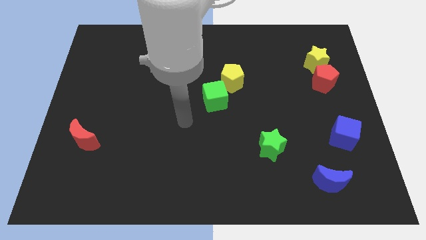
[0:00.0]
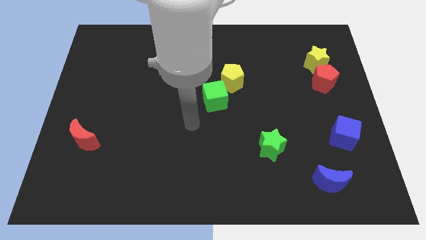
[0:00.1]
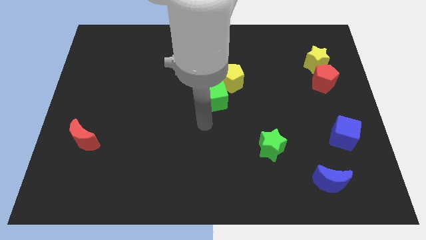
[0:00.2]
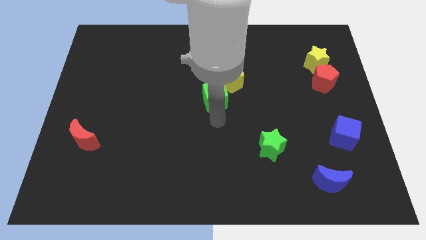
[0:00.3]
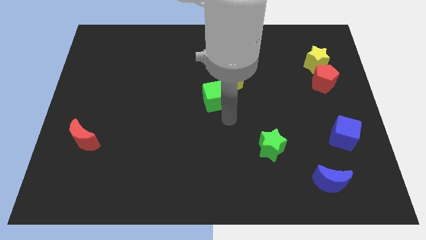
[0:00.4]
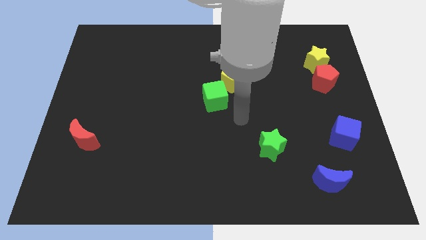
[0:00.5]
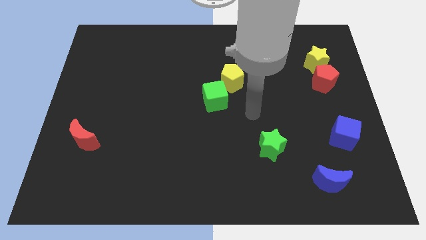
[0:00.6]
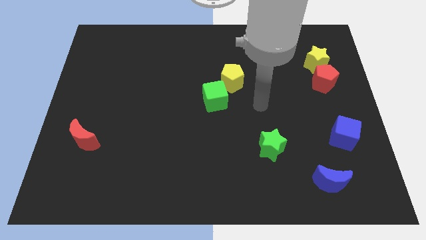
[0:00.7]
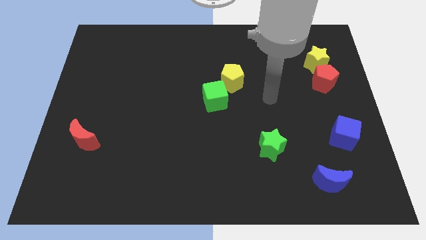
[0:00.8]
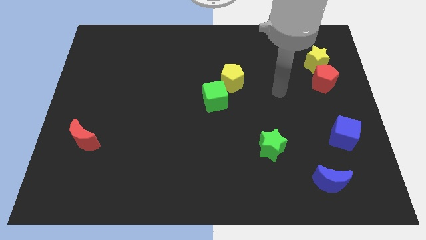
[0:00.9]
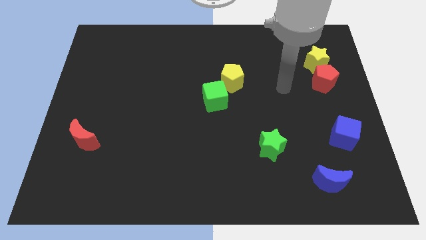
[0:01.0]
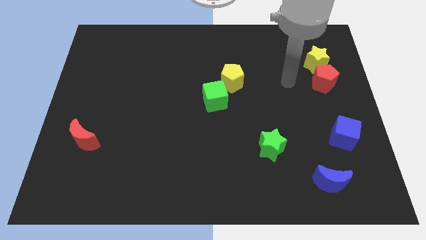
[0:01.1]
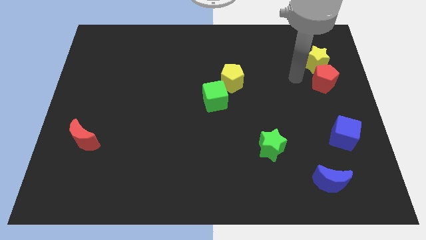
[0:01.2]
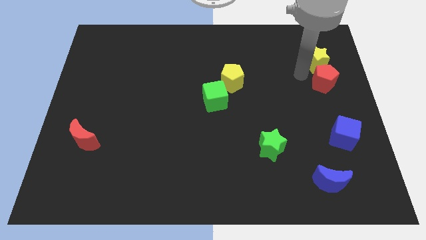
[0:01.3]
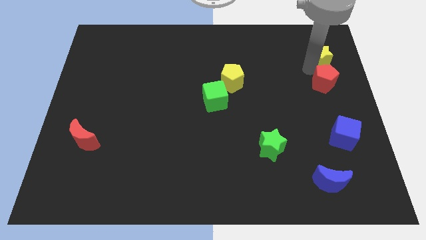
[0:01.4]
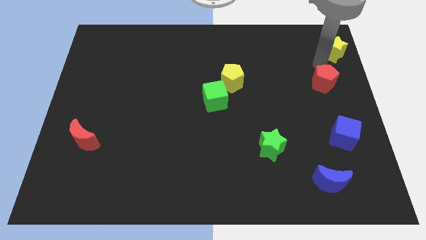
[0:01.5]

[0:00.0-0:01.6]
pull the red pentagon apart from the yellow star

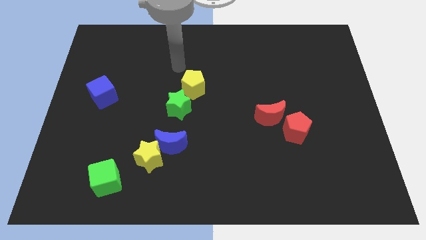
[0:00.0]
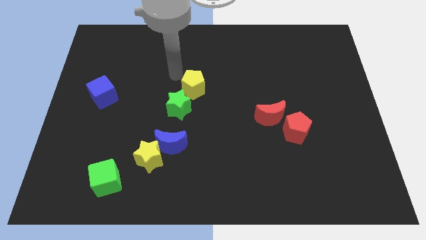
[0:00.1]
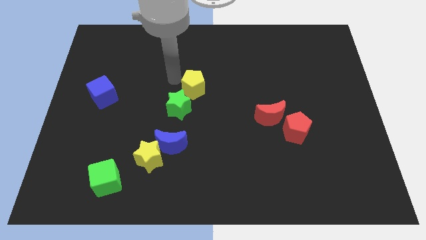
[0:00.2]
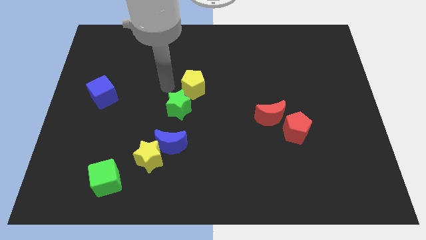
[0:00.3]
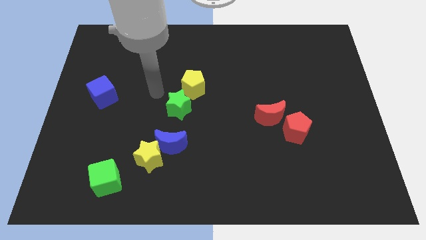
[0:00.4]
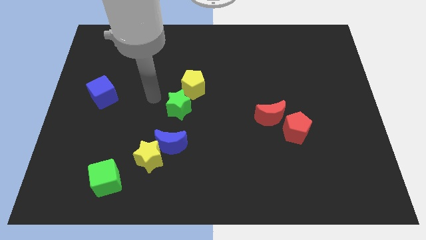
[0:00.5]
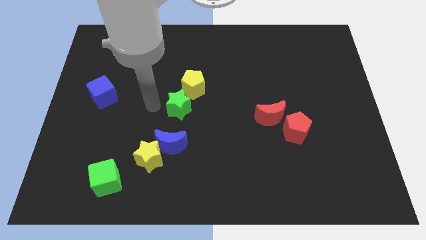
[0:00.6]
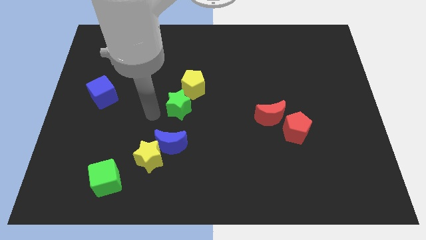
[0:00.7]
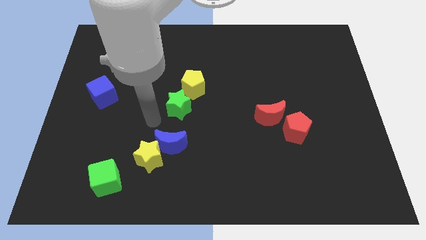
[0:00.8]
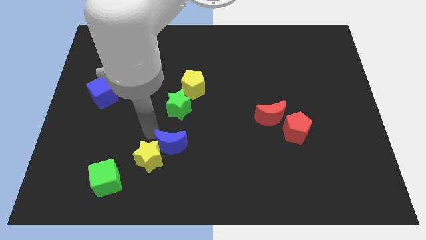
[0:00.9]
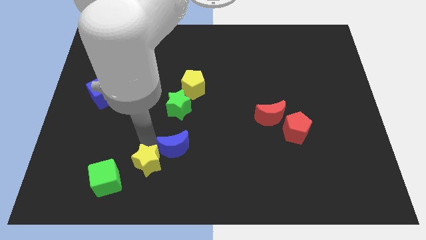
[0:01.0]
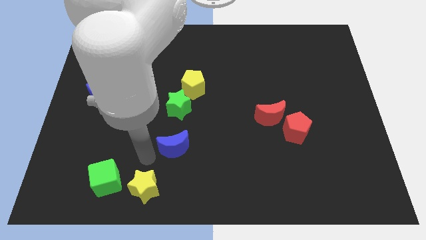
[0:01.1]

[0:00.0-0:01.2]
pull the blue moon apart from the yellow star

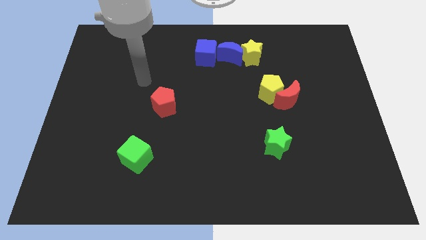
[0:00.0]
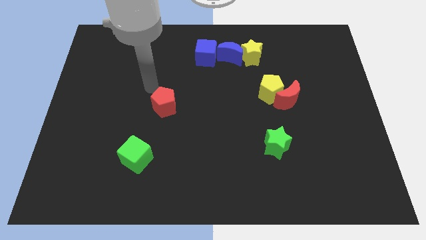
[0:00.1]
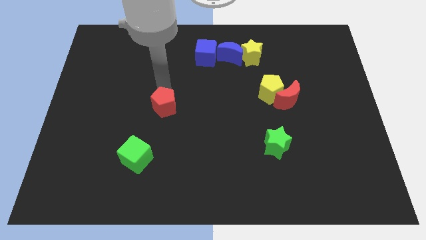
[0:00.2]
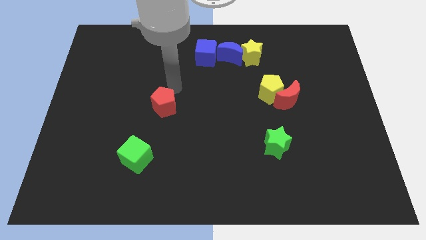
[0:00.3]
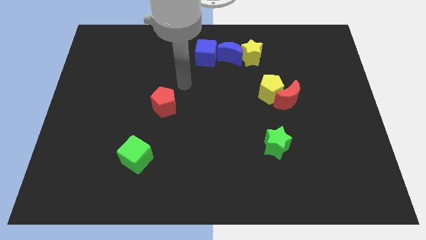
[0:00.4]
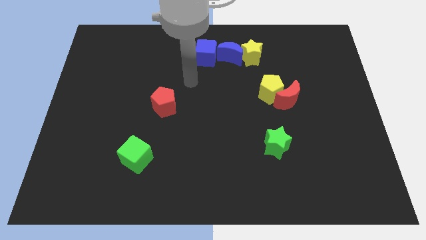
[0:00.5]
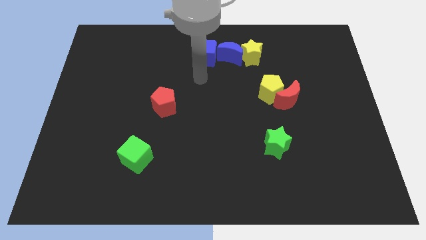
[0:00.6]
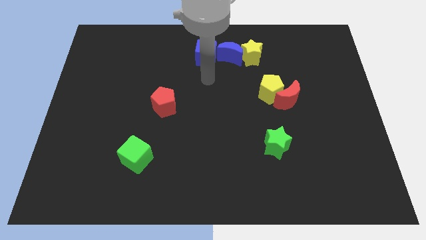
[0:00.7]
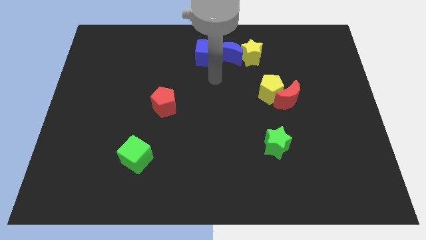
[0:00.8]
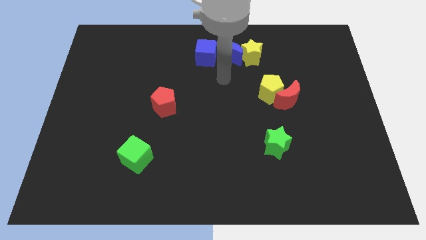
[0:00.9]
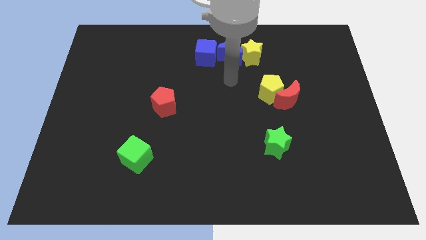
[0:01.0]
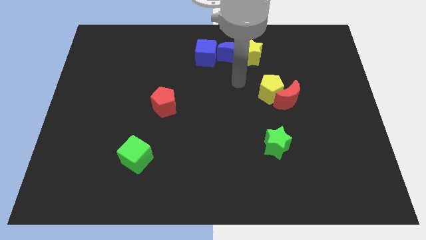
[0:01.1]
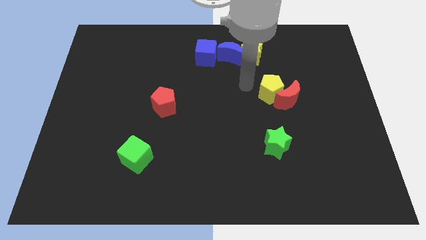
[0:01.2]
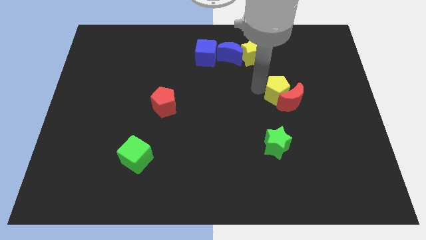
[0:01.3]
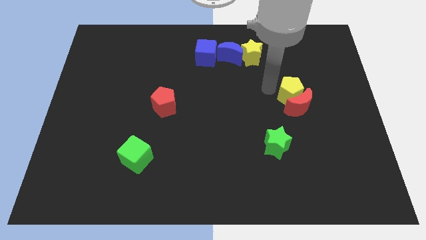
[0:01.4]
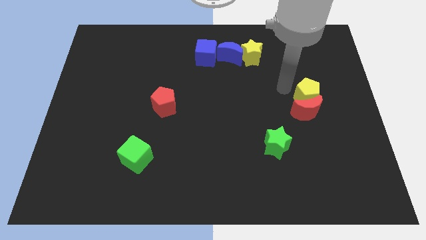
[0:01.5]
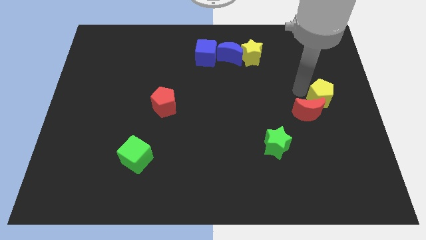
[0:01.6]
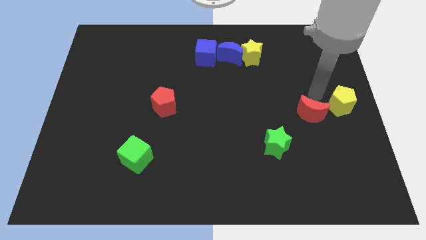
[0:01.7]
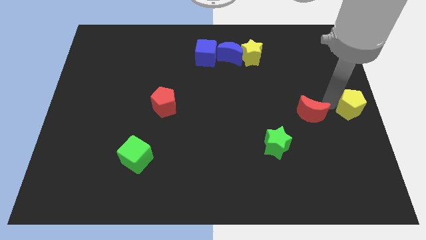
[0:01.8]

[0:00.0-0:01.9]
separate the red moon from the yellow pentagon

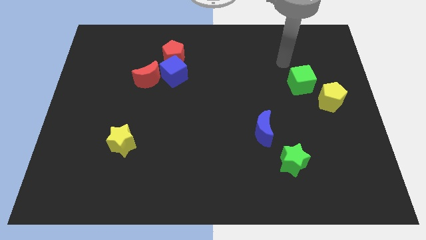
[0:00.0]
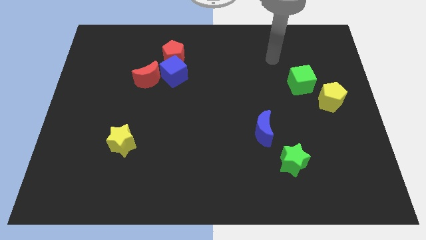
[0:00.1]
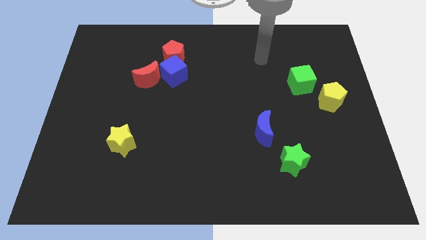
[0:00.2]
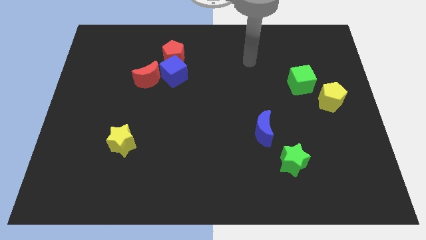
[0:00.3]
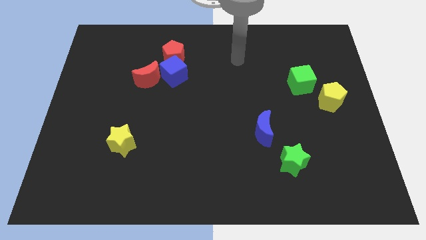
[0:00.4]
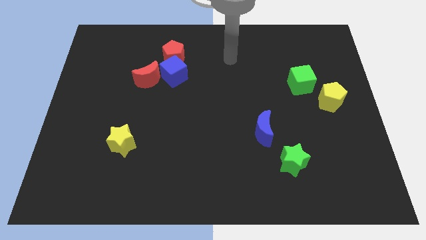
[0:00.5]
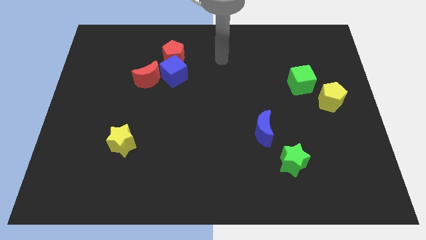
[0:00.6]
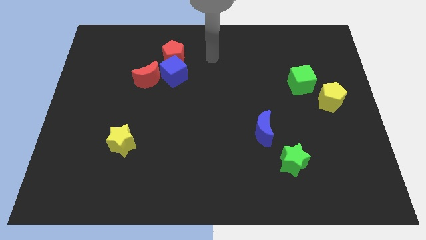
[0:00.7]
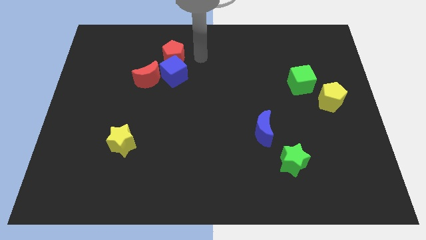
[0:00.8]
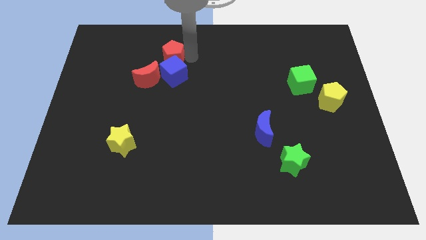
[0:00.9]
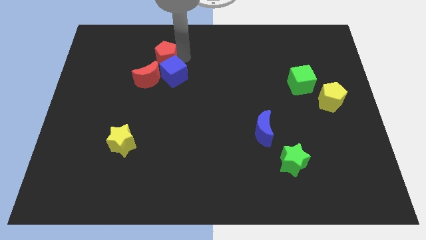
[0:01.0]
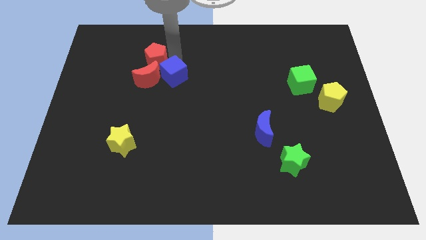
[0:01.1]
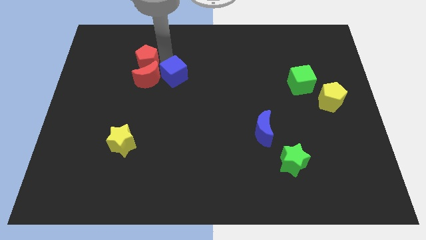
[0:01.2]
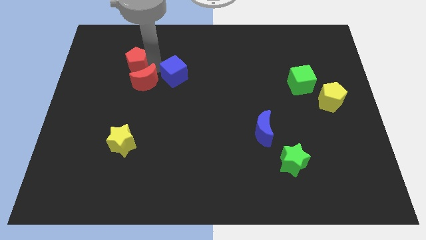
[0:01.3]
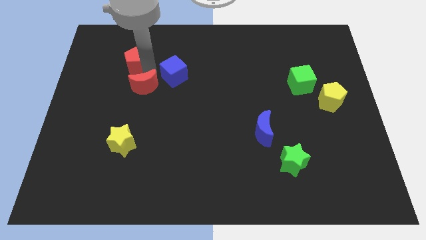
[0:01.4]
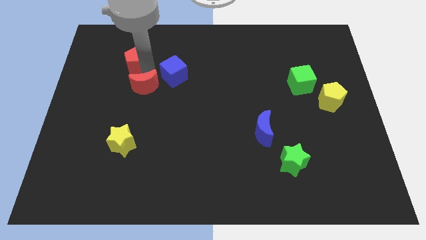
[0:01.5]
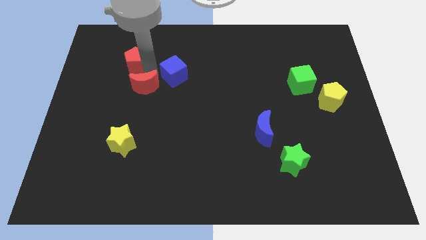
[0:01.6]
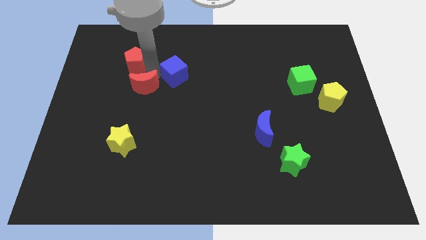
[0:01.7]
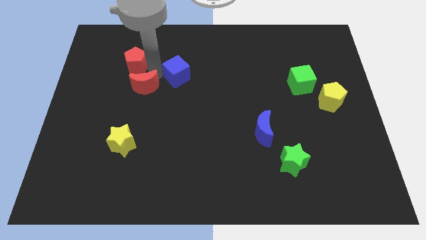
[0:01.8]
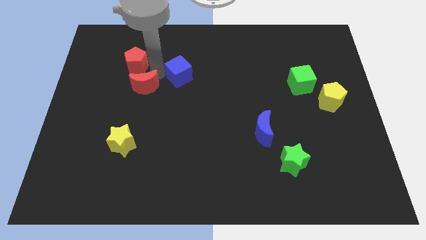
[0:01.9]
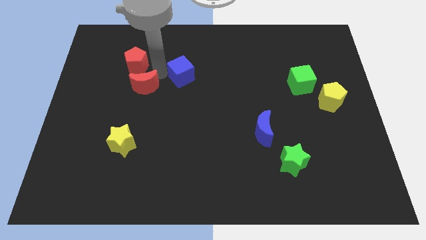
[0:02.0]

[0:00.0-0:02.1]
pull the blue cube apart from the red pentagon and red moon

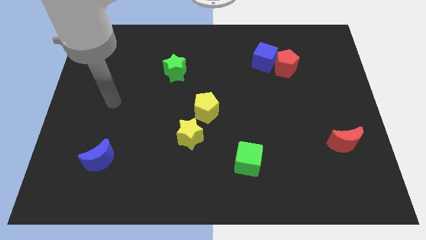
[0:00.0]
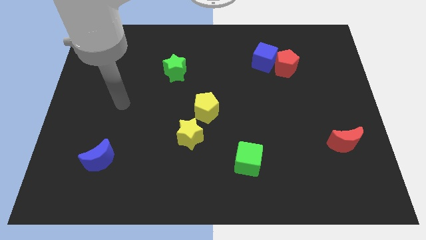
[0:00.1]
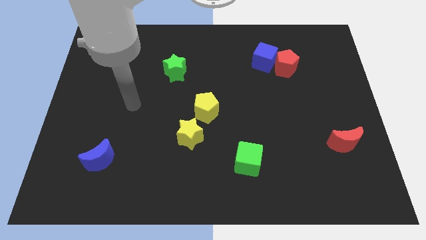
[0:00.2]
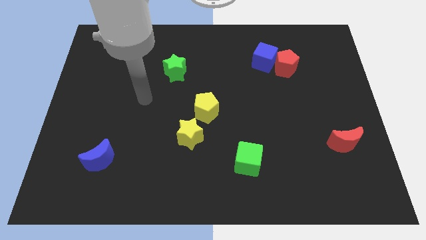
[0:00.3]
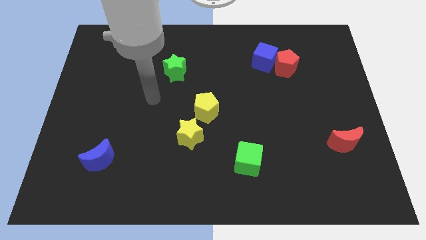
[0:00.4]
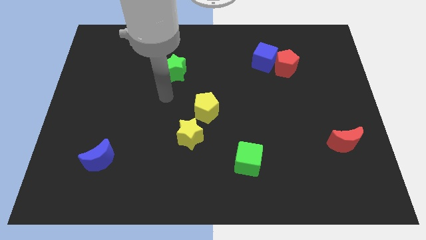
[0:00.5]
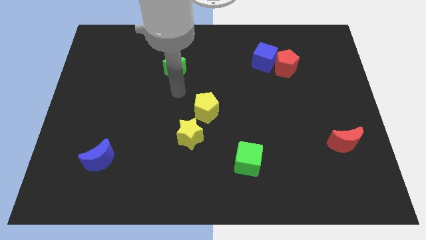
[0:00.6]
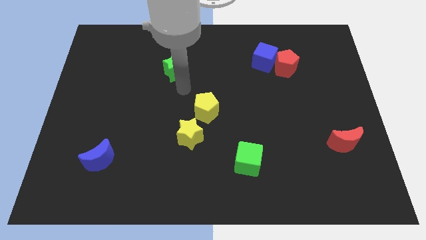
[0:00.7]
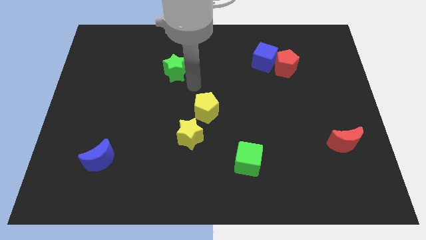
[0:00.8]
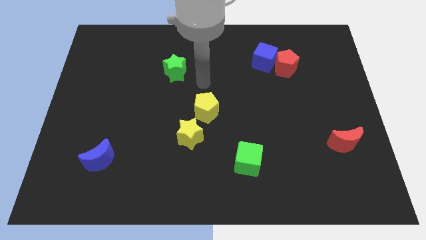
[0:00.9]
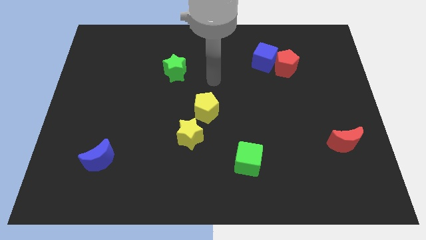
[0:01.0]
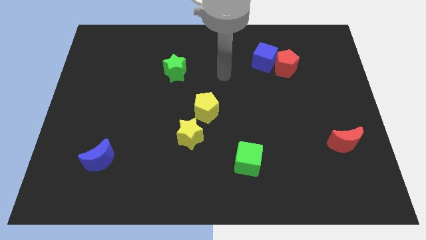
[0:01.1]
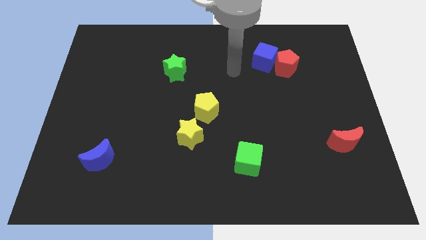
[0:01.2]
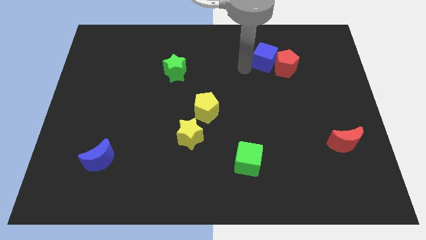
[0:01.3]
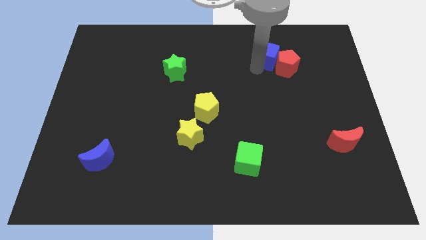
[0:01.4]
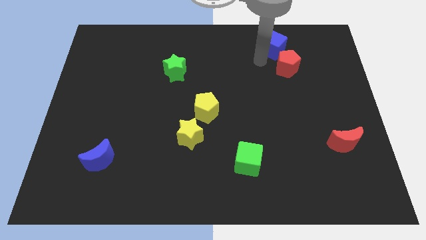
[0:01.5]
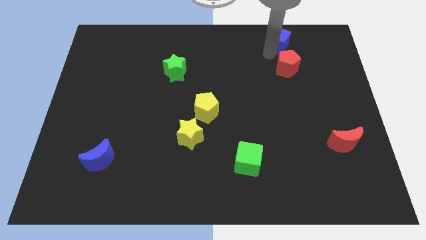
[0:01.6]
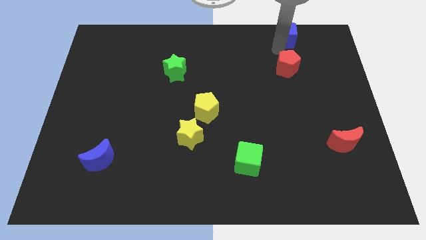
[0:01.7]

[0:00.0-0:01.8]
separate the red pentagon from the blue cube

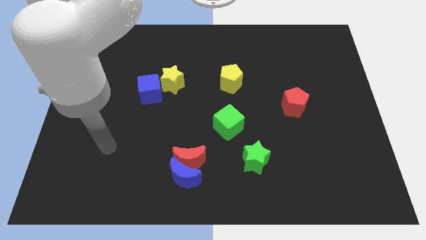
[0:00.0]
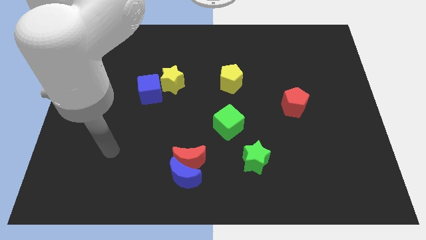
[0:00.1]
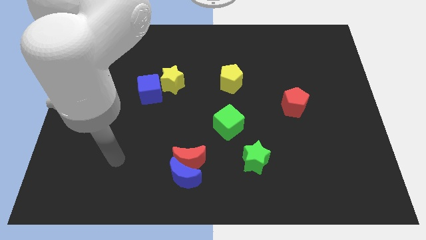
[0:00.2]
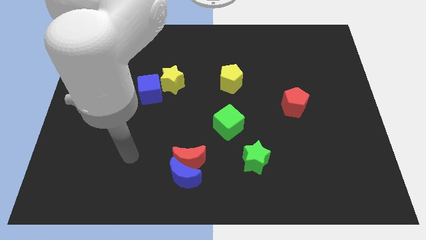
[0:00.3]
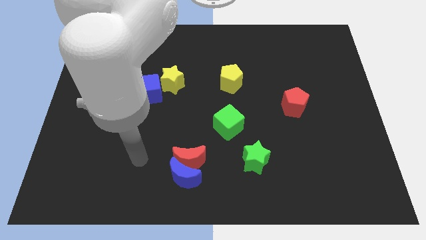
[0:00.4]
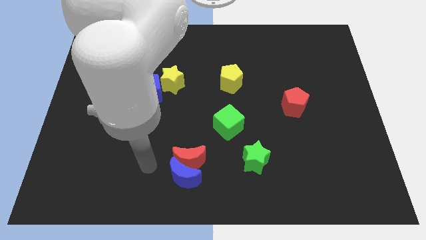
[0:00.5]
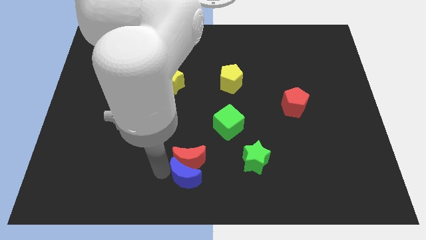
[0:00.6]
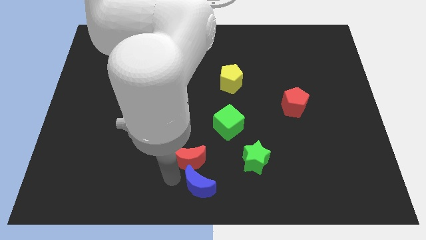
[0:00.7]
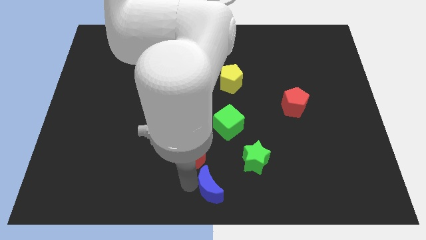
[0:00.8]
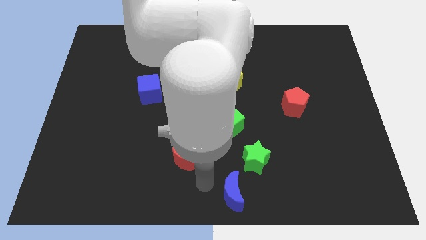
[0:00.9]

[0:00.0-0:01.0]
pull the red moon apart from the blue moon
